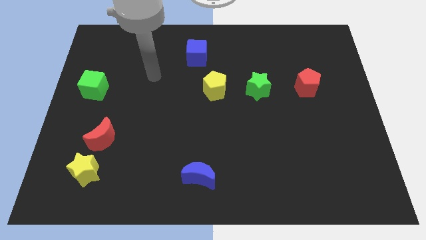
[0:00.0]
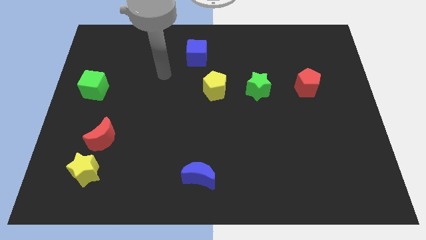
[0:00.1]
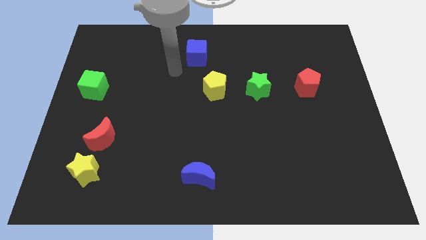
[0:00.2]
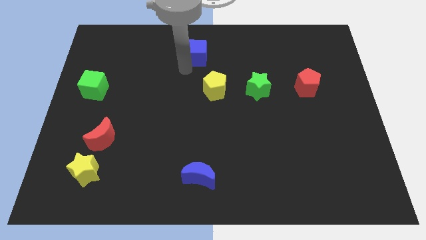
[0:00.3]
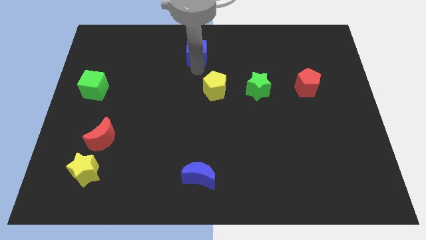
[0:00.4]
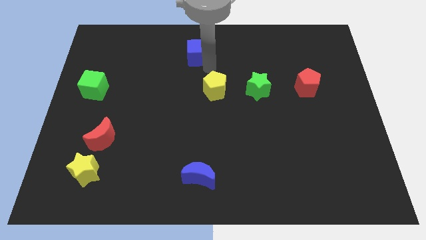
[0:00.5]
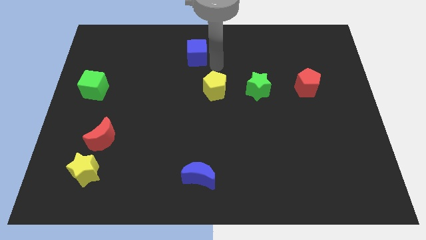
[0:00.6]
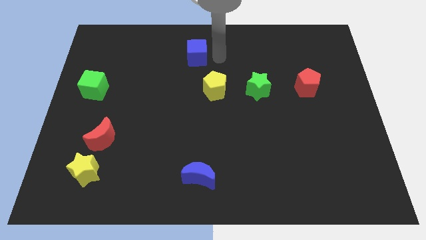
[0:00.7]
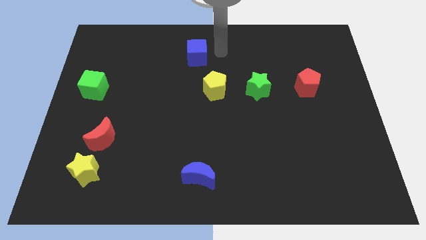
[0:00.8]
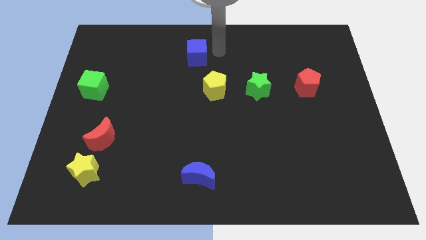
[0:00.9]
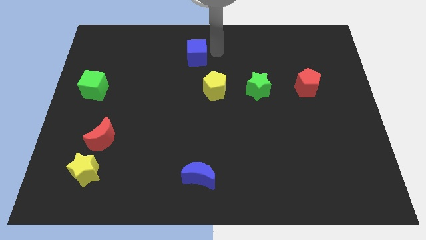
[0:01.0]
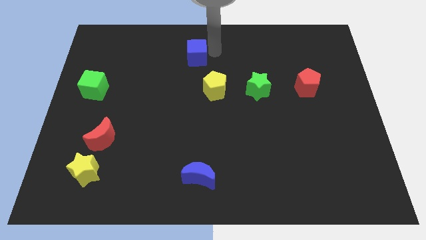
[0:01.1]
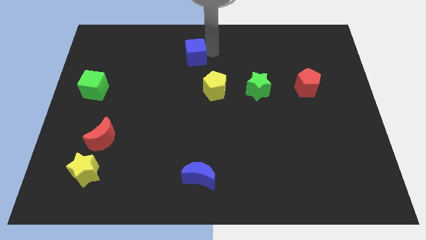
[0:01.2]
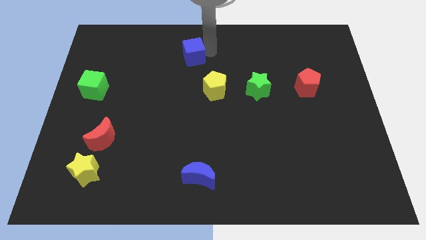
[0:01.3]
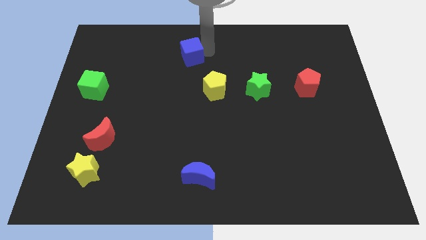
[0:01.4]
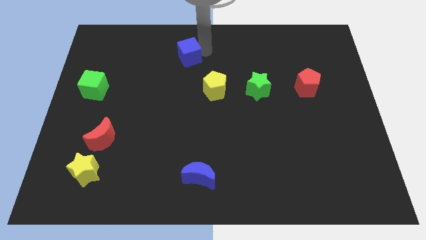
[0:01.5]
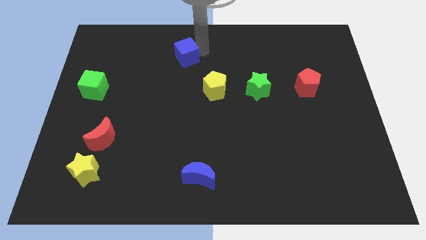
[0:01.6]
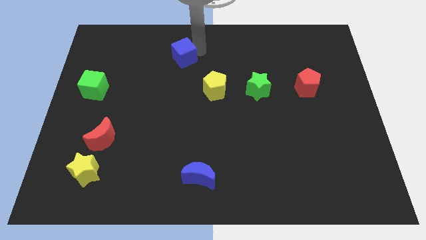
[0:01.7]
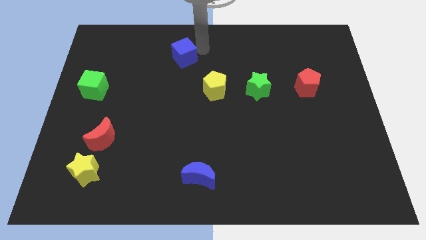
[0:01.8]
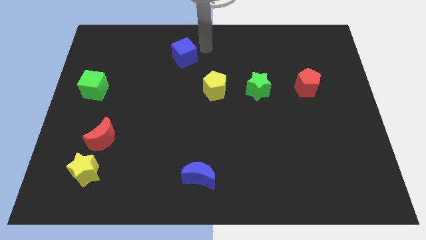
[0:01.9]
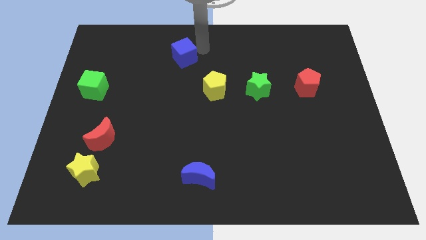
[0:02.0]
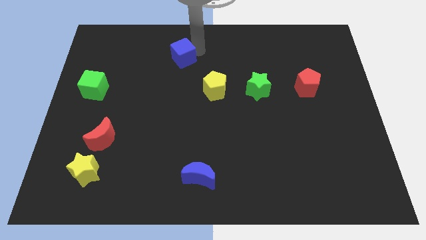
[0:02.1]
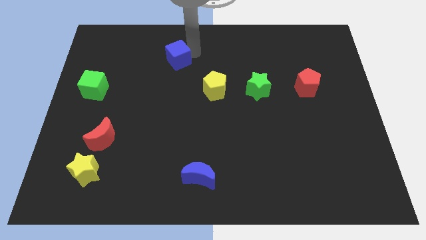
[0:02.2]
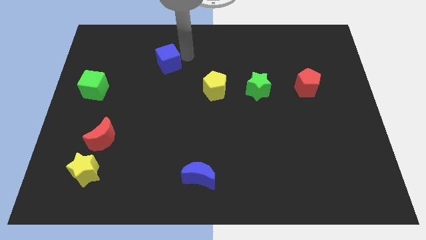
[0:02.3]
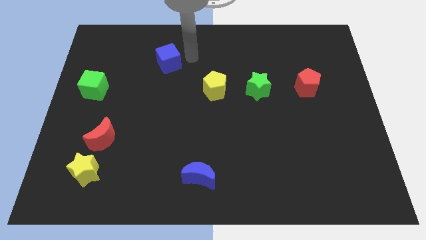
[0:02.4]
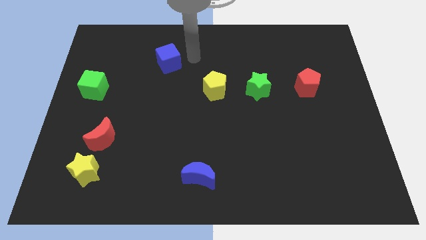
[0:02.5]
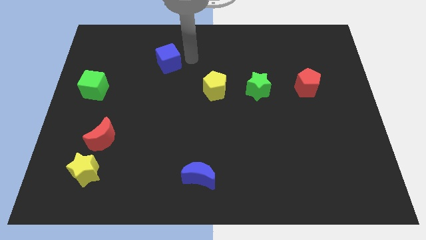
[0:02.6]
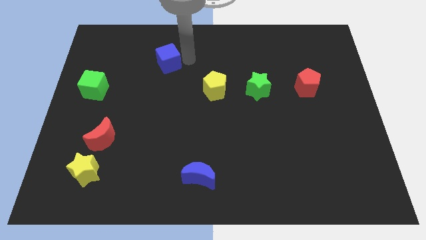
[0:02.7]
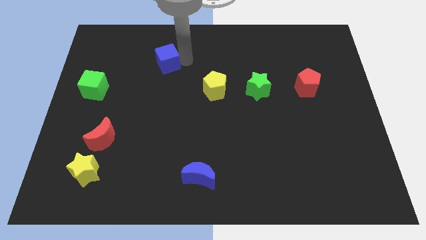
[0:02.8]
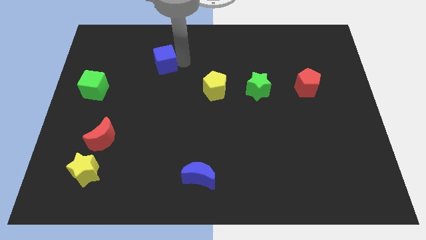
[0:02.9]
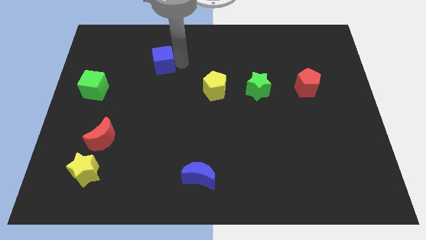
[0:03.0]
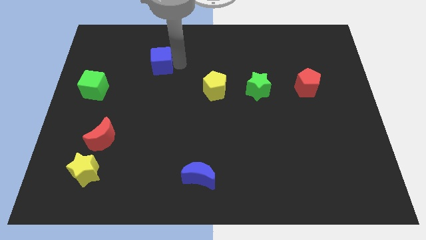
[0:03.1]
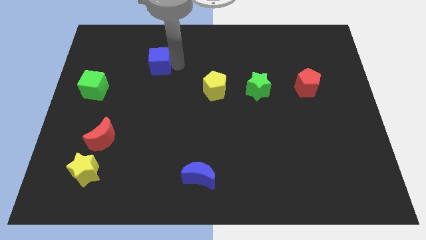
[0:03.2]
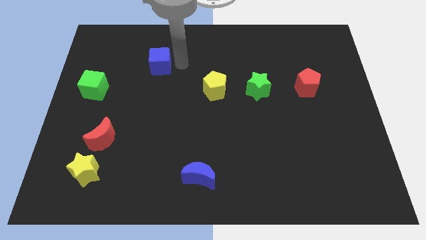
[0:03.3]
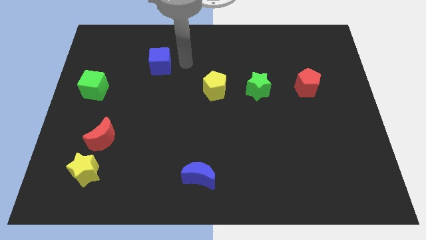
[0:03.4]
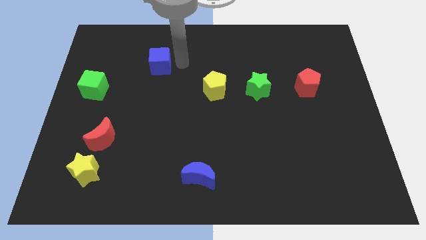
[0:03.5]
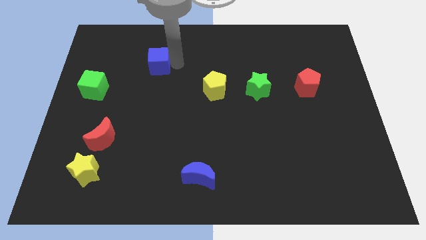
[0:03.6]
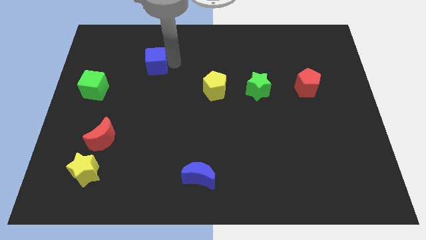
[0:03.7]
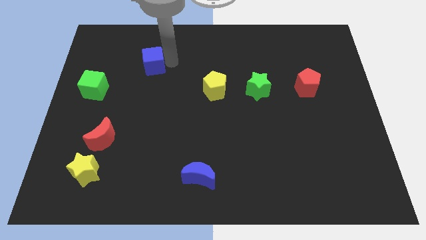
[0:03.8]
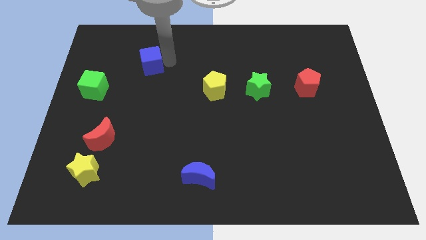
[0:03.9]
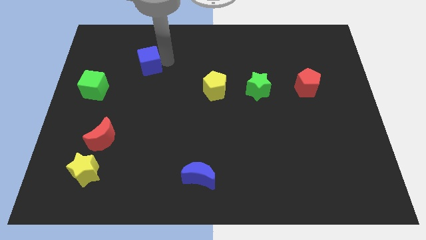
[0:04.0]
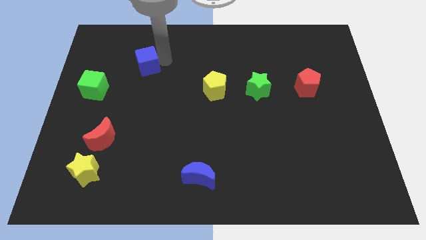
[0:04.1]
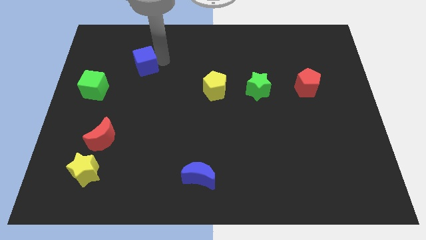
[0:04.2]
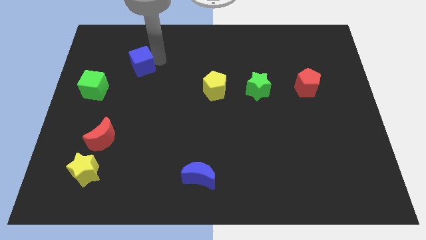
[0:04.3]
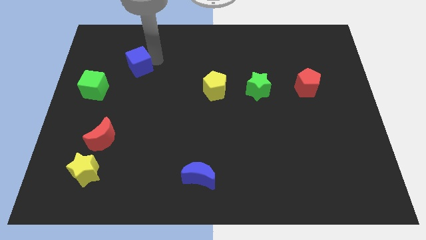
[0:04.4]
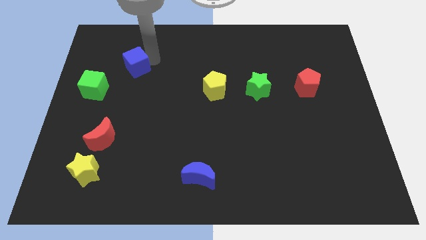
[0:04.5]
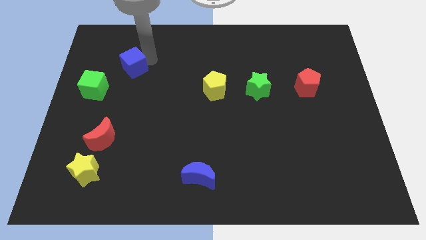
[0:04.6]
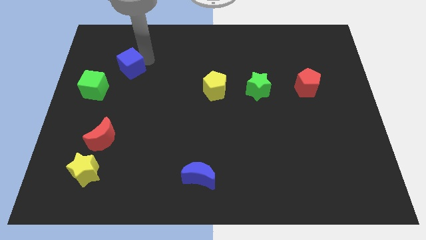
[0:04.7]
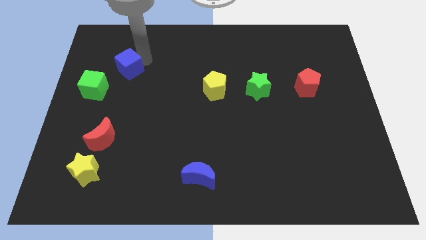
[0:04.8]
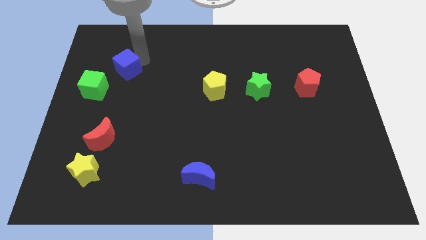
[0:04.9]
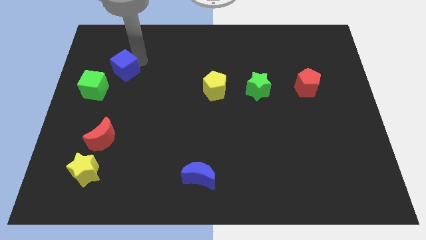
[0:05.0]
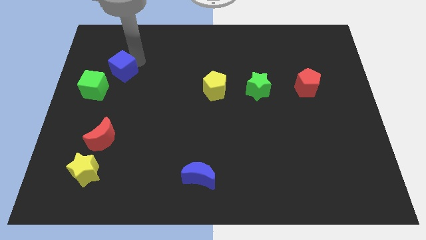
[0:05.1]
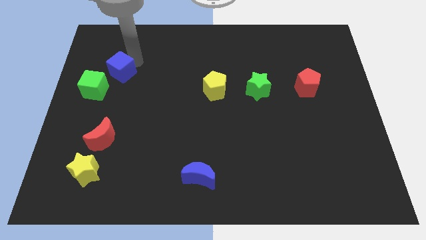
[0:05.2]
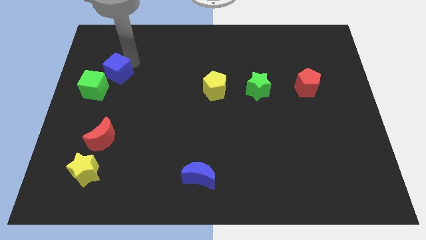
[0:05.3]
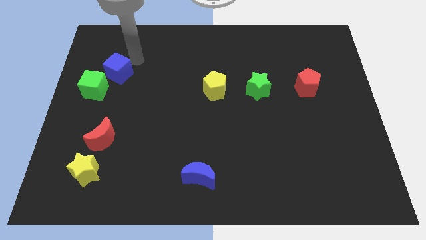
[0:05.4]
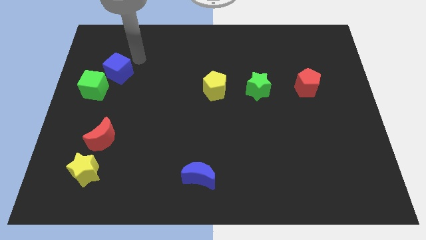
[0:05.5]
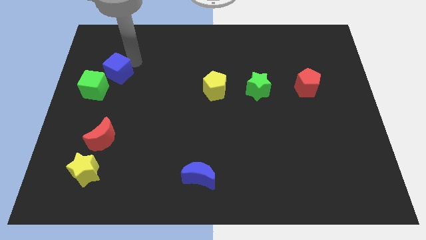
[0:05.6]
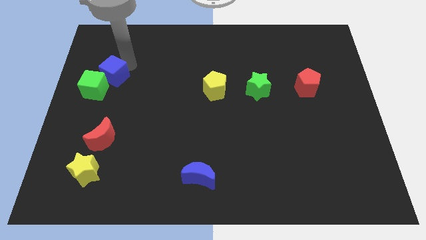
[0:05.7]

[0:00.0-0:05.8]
push the blue cube next to the green cube

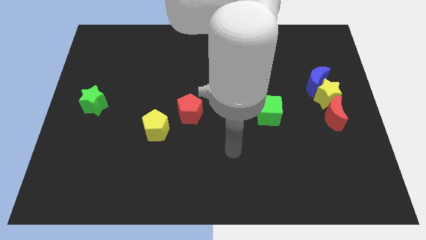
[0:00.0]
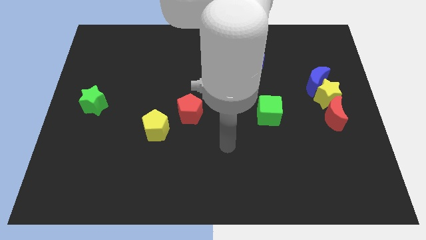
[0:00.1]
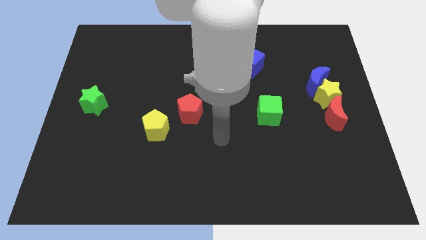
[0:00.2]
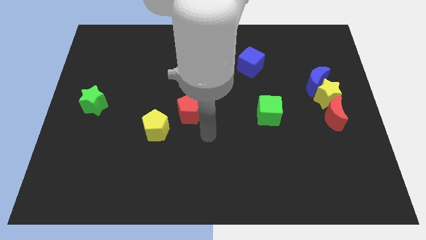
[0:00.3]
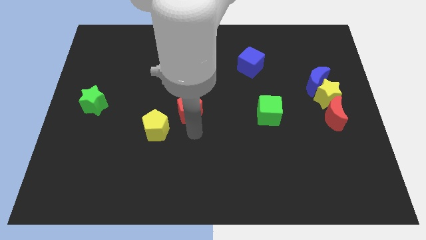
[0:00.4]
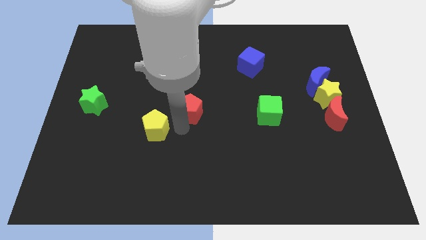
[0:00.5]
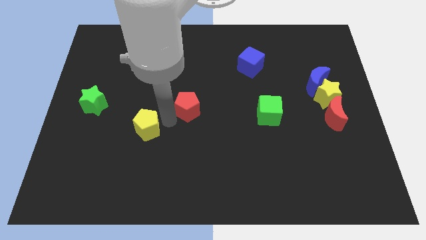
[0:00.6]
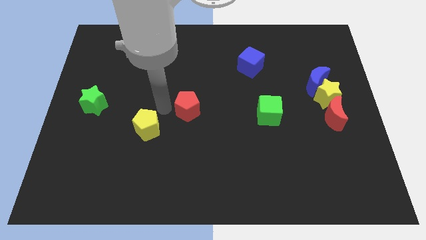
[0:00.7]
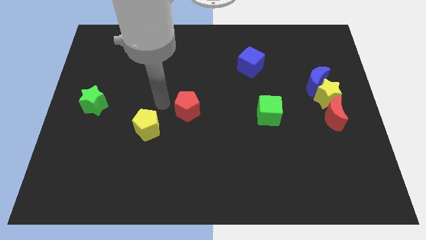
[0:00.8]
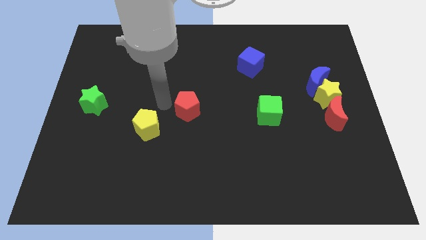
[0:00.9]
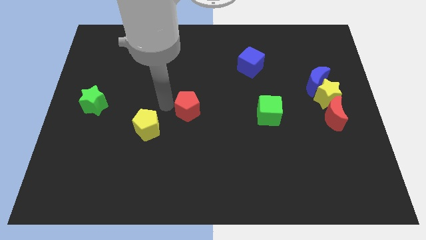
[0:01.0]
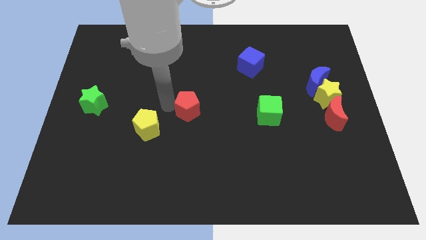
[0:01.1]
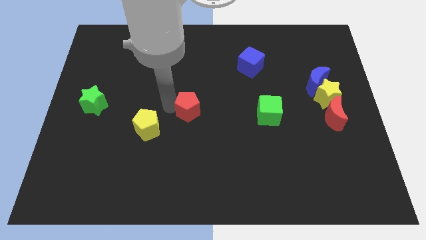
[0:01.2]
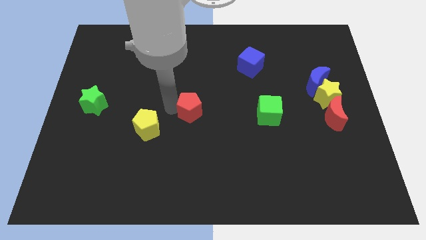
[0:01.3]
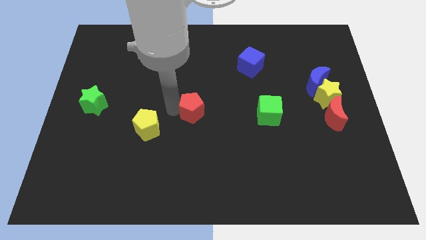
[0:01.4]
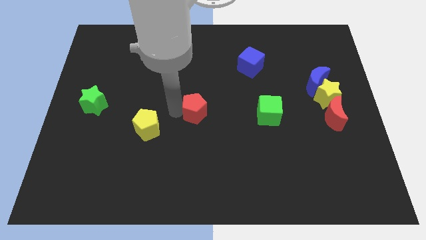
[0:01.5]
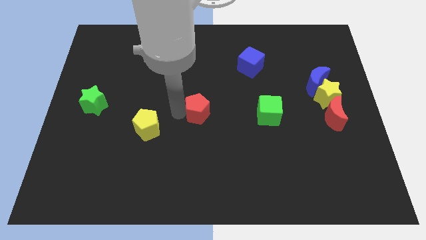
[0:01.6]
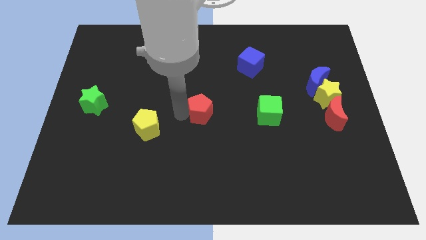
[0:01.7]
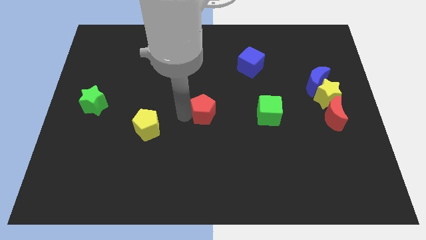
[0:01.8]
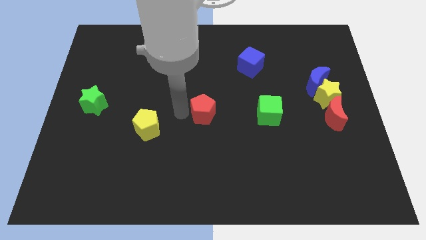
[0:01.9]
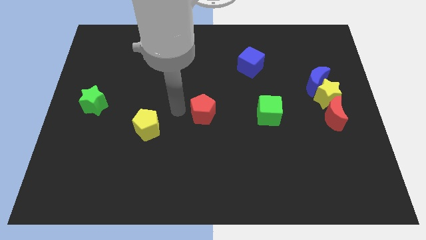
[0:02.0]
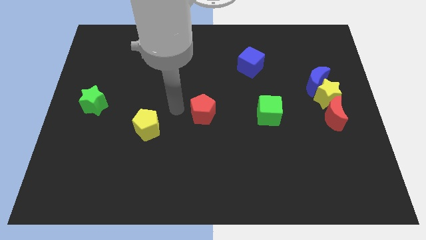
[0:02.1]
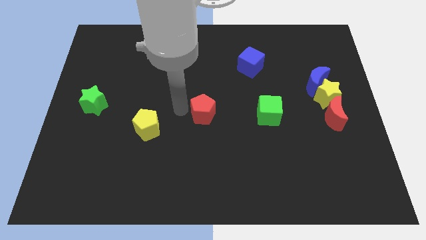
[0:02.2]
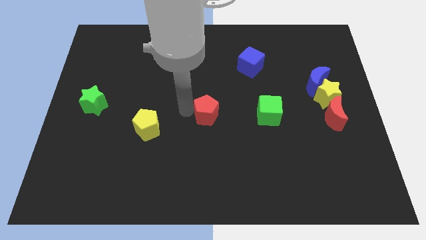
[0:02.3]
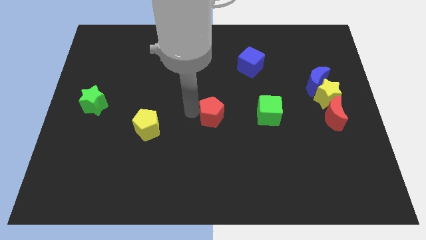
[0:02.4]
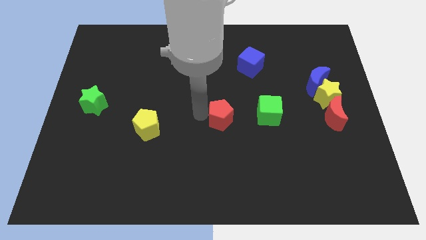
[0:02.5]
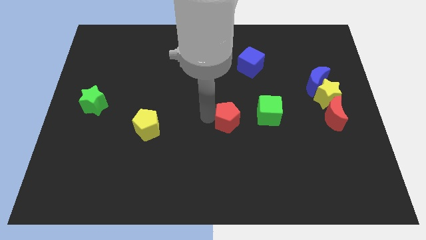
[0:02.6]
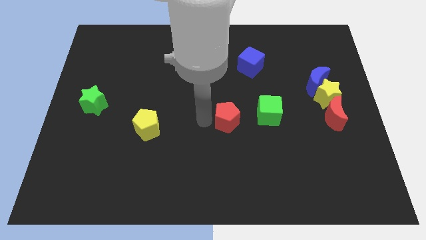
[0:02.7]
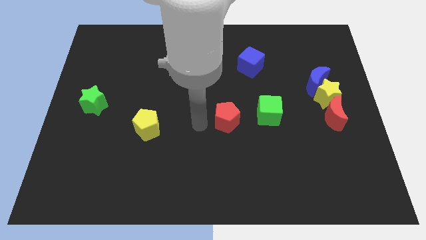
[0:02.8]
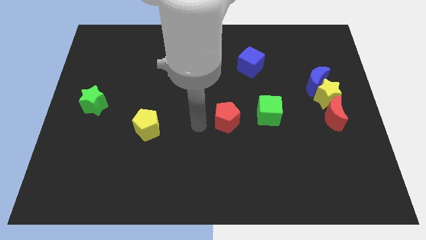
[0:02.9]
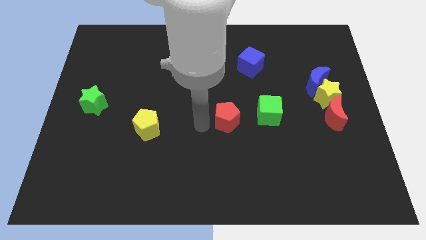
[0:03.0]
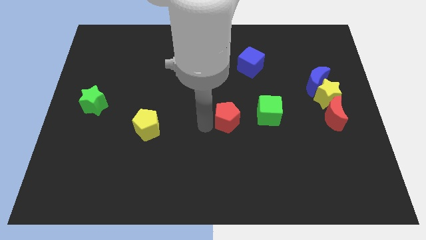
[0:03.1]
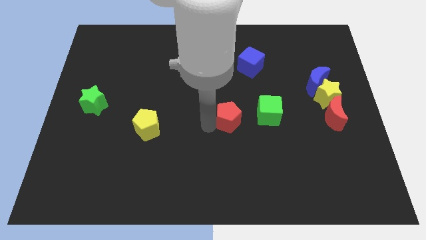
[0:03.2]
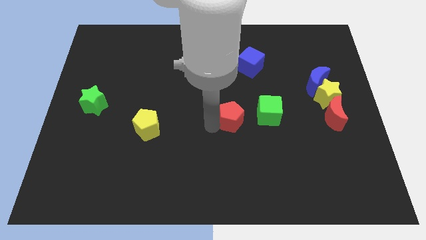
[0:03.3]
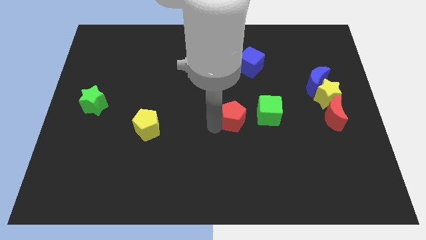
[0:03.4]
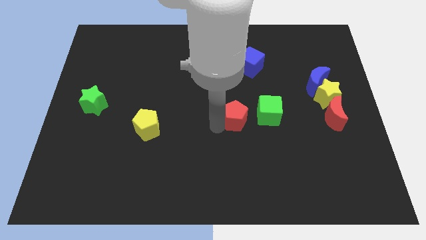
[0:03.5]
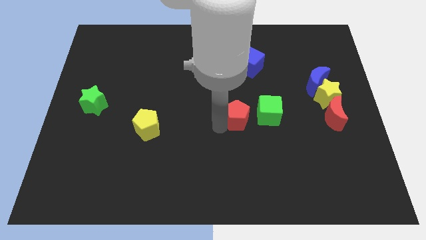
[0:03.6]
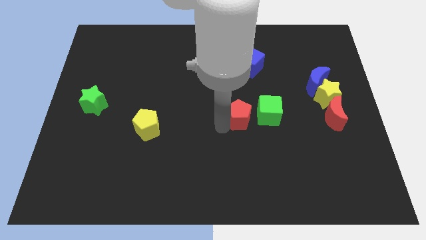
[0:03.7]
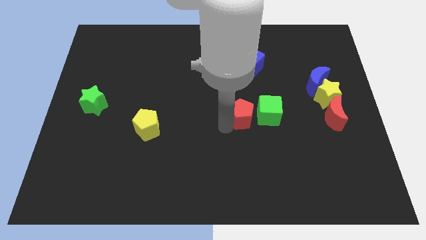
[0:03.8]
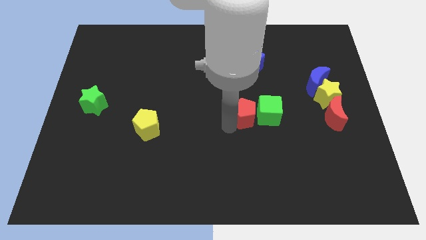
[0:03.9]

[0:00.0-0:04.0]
slide the red pentagon next to the green cube
